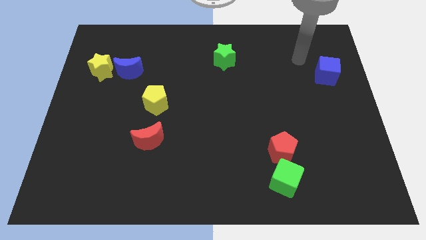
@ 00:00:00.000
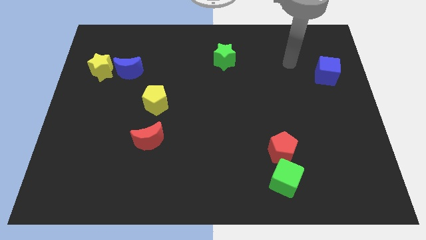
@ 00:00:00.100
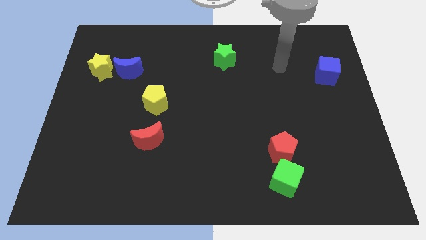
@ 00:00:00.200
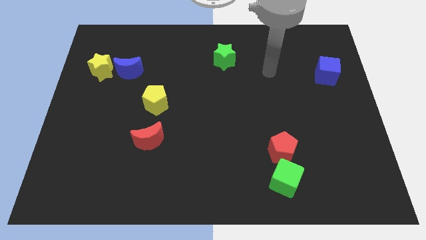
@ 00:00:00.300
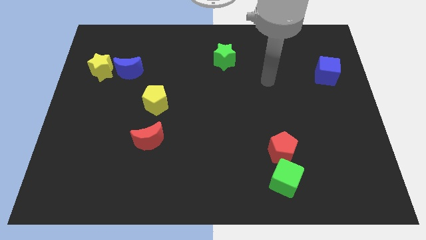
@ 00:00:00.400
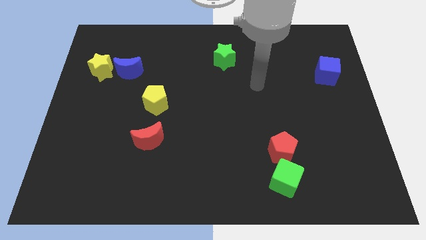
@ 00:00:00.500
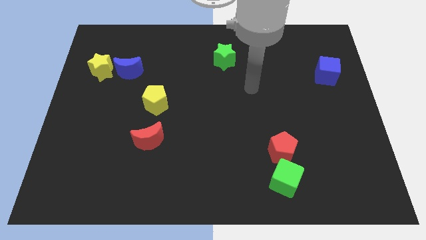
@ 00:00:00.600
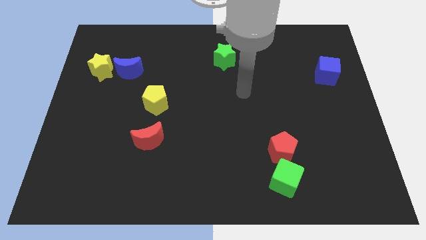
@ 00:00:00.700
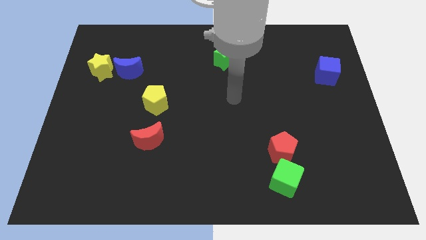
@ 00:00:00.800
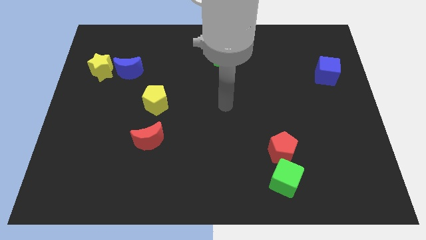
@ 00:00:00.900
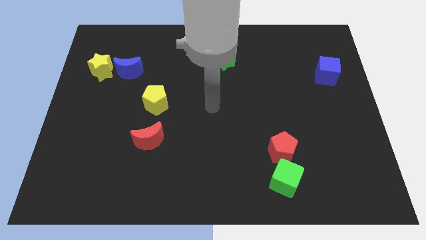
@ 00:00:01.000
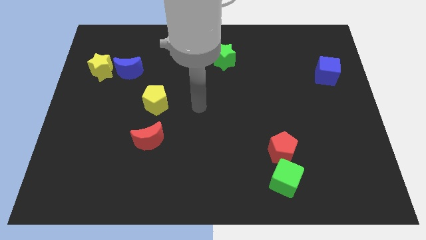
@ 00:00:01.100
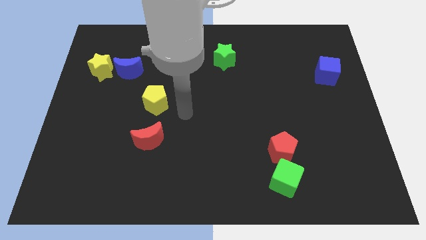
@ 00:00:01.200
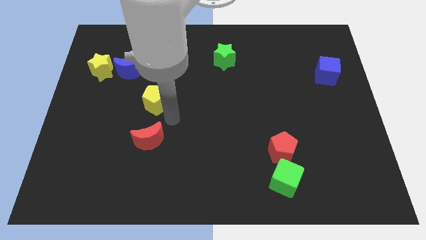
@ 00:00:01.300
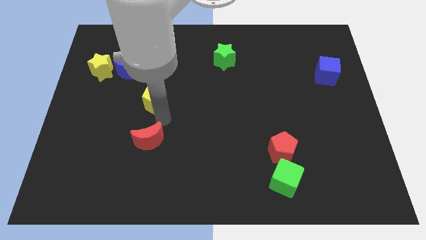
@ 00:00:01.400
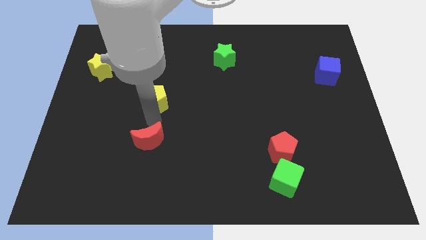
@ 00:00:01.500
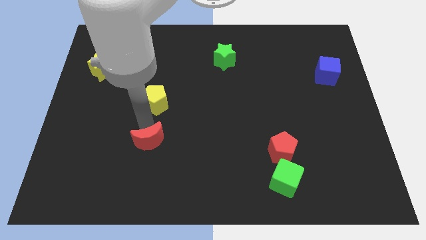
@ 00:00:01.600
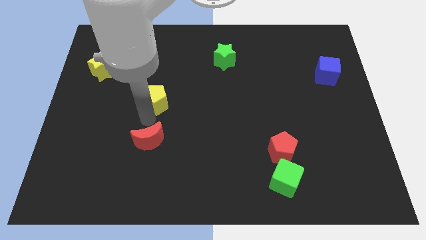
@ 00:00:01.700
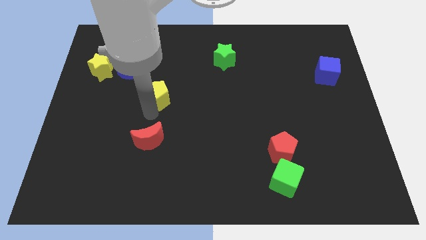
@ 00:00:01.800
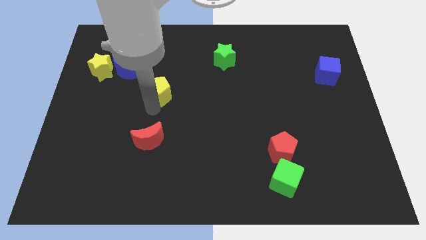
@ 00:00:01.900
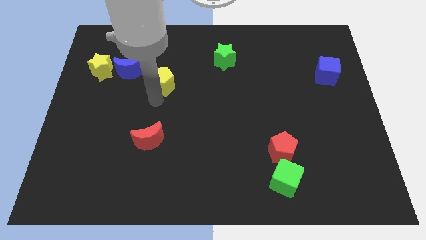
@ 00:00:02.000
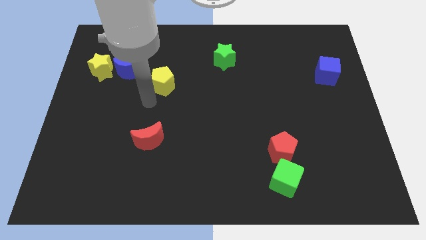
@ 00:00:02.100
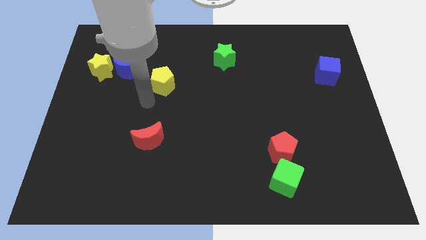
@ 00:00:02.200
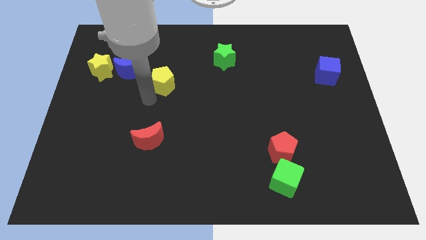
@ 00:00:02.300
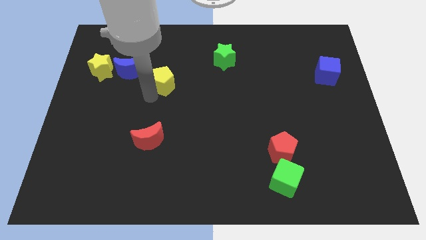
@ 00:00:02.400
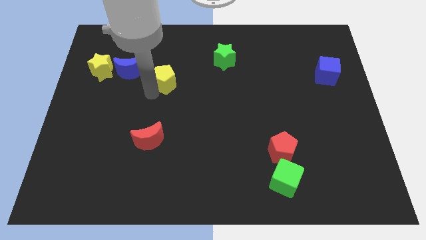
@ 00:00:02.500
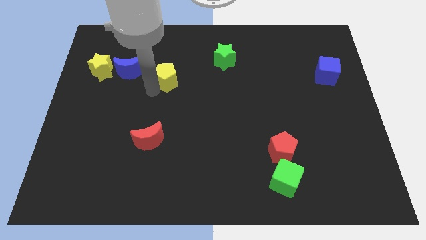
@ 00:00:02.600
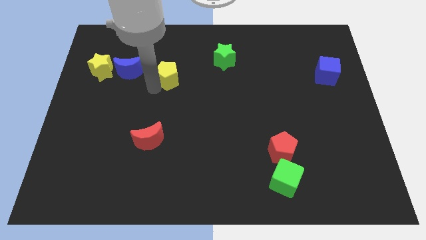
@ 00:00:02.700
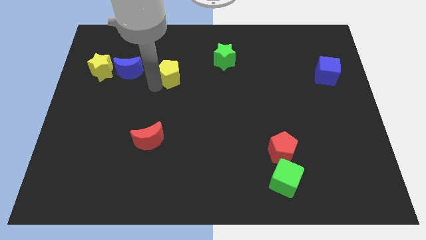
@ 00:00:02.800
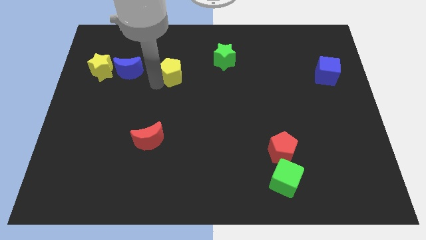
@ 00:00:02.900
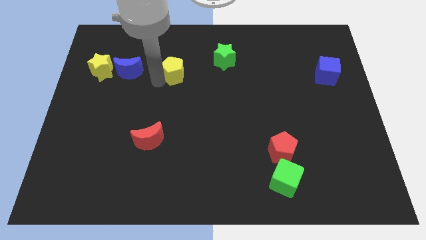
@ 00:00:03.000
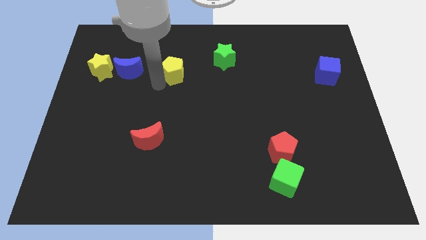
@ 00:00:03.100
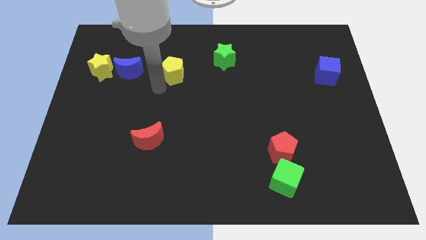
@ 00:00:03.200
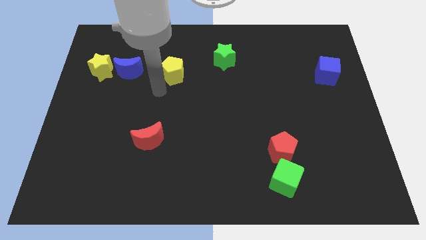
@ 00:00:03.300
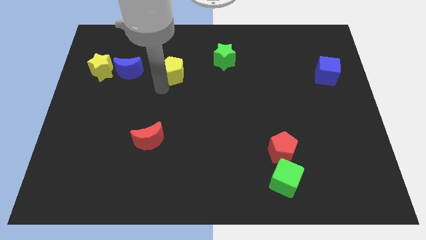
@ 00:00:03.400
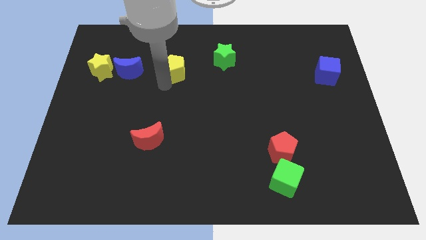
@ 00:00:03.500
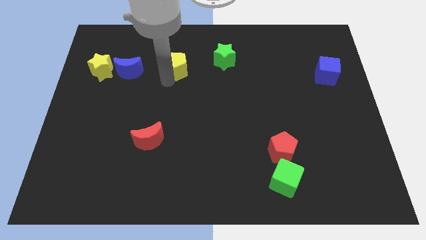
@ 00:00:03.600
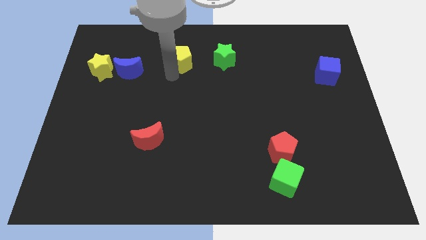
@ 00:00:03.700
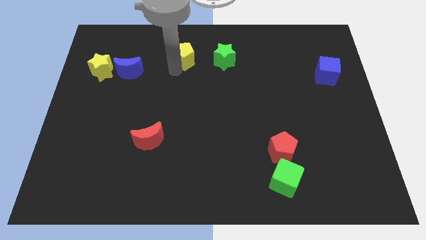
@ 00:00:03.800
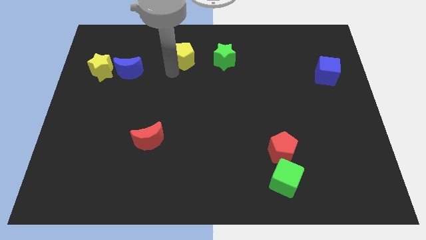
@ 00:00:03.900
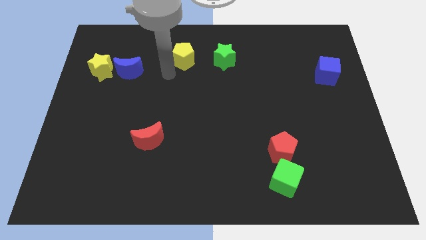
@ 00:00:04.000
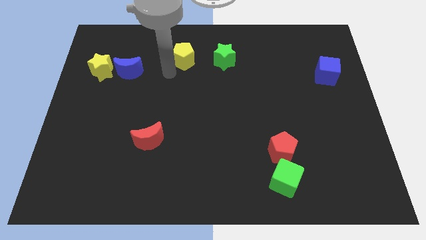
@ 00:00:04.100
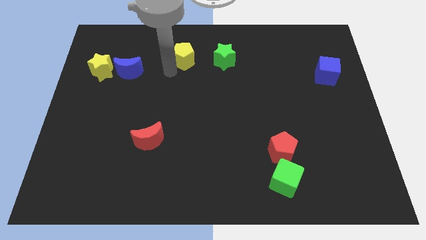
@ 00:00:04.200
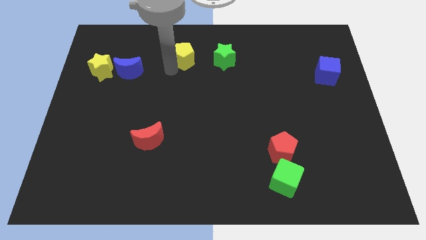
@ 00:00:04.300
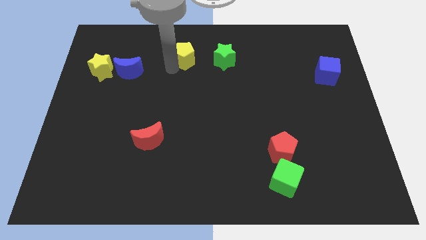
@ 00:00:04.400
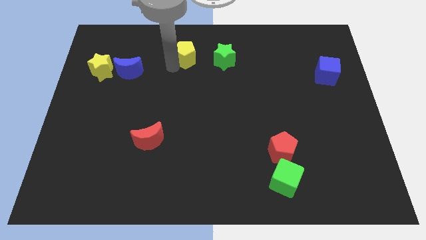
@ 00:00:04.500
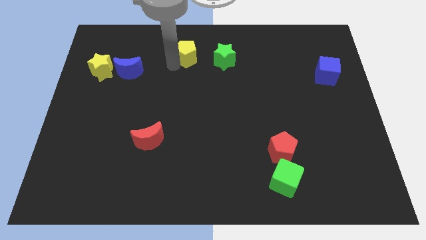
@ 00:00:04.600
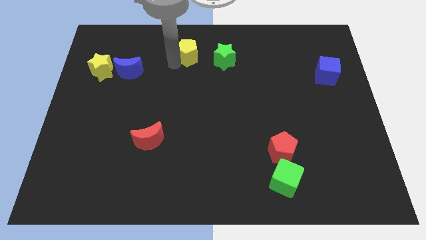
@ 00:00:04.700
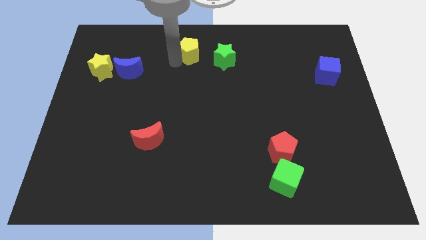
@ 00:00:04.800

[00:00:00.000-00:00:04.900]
push the yellow pentagon to the towards your base
